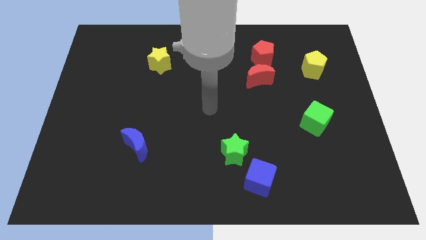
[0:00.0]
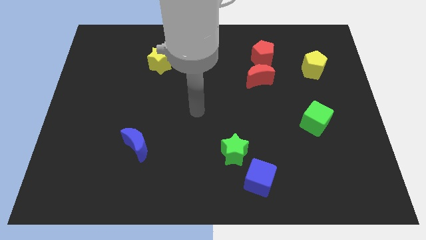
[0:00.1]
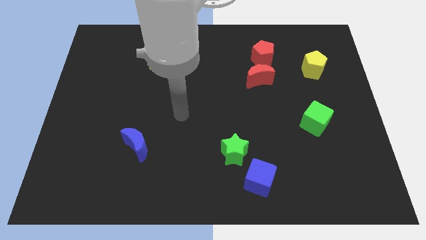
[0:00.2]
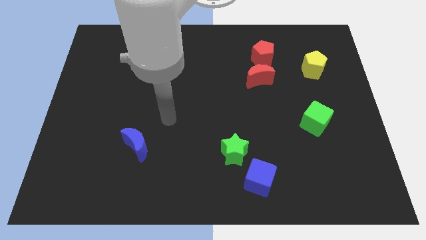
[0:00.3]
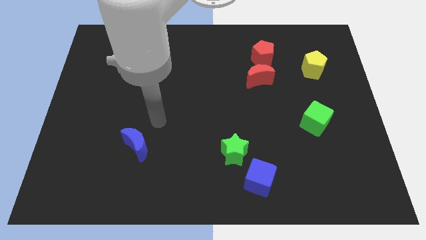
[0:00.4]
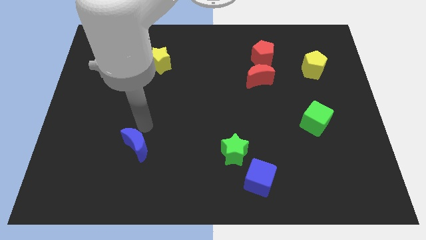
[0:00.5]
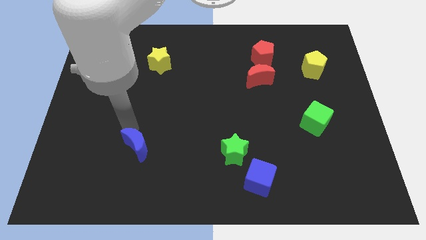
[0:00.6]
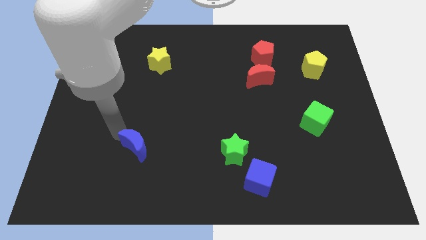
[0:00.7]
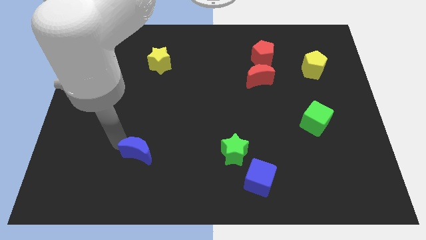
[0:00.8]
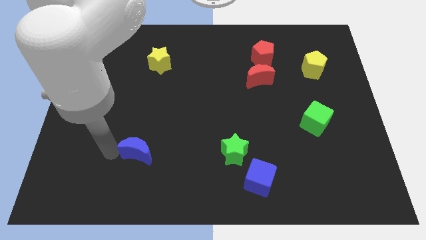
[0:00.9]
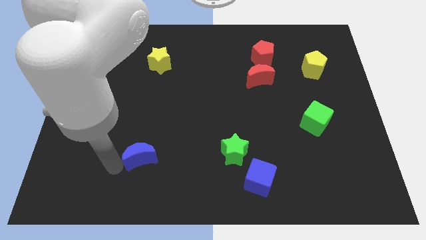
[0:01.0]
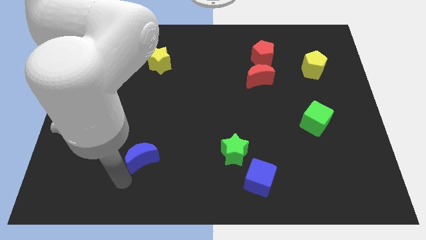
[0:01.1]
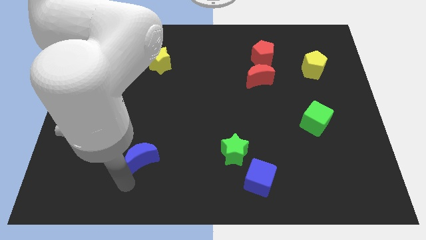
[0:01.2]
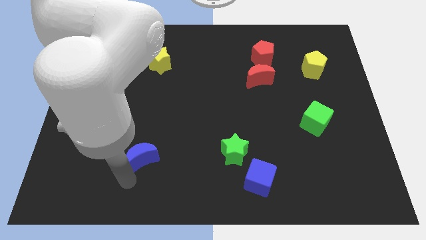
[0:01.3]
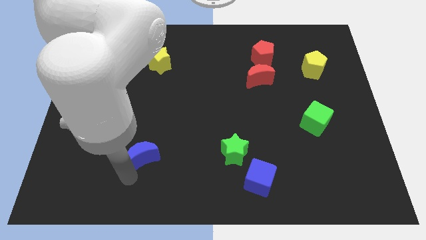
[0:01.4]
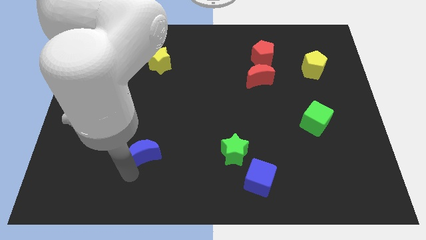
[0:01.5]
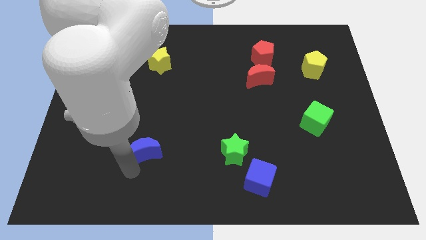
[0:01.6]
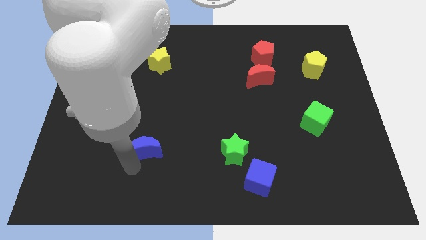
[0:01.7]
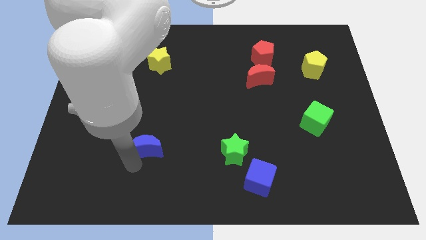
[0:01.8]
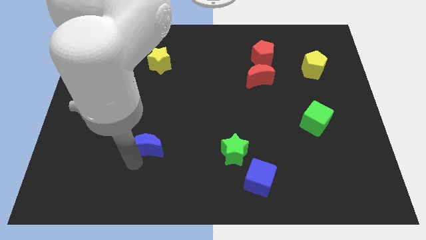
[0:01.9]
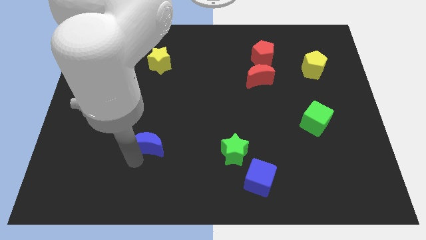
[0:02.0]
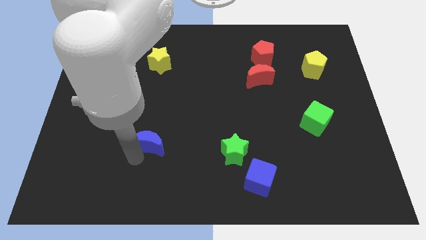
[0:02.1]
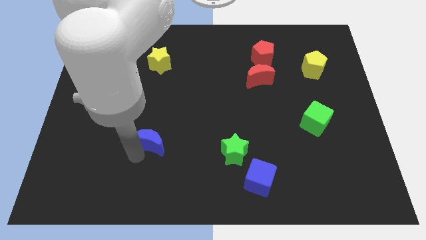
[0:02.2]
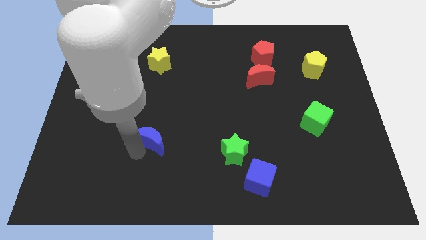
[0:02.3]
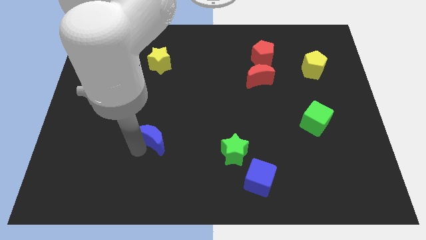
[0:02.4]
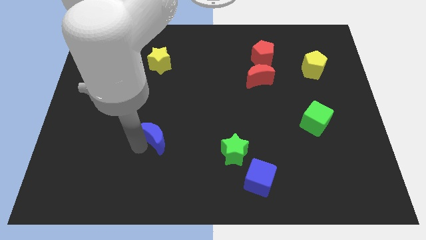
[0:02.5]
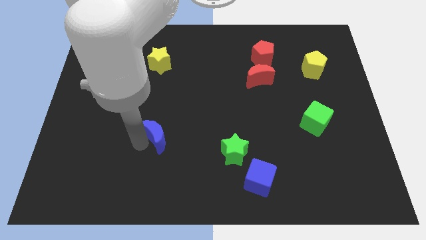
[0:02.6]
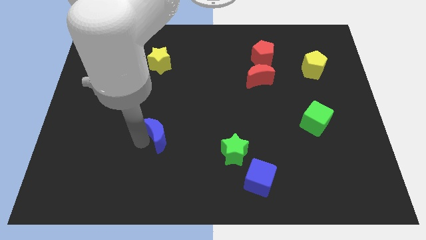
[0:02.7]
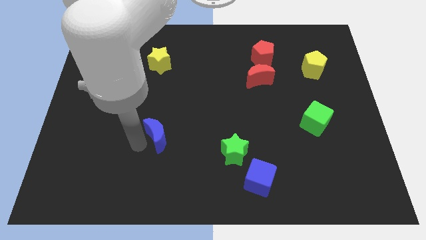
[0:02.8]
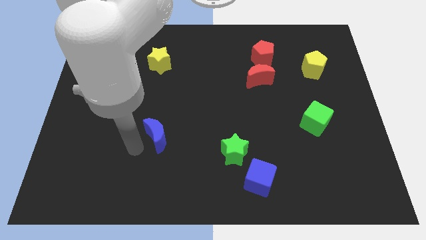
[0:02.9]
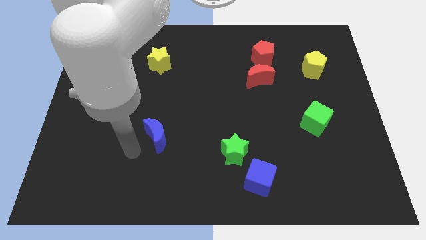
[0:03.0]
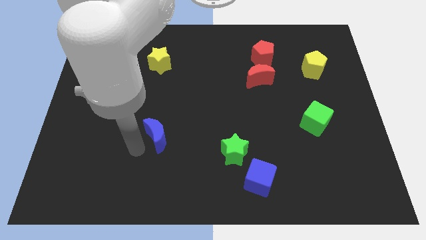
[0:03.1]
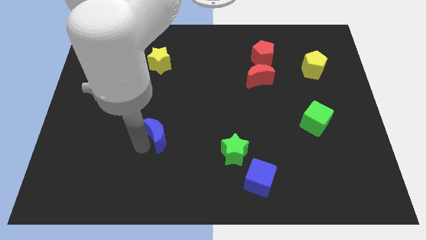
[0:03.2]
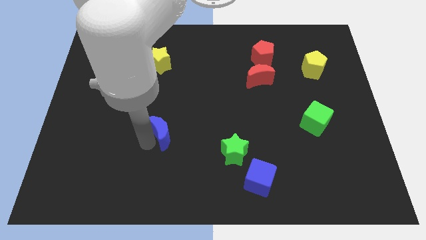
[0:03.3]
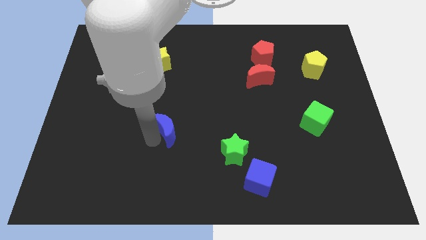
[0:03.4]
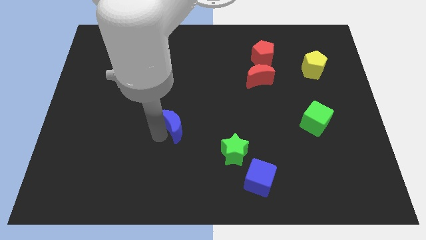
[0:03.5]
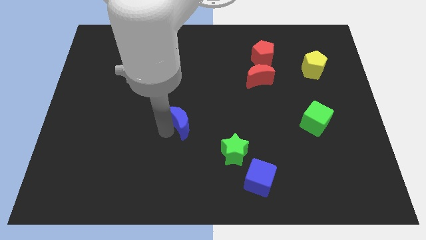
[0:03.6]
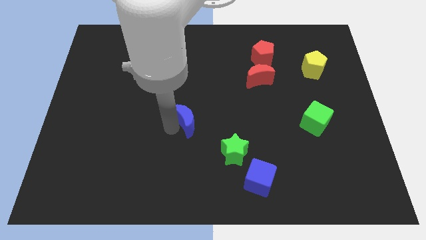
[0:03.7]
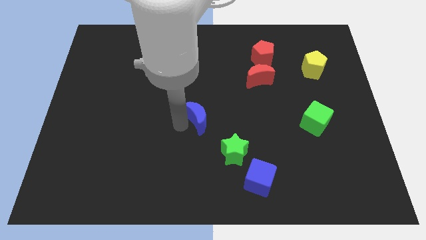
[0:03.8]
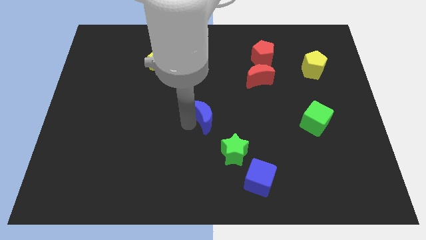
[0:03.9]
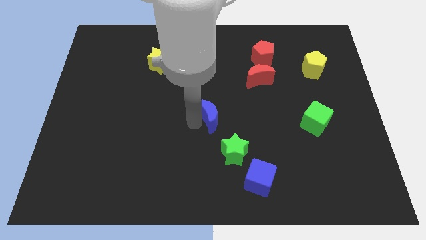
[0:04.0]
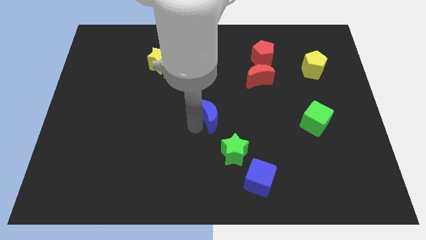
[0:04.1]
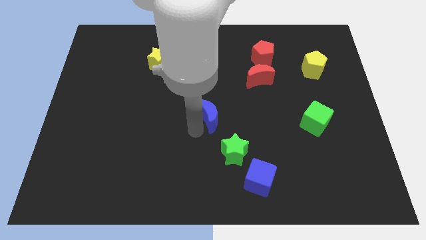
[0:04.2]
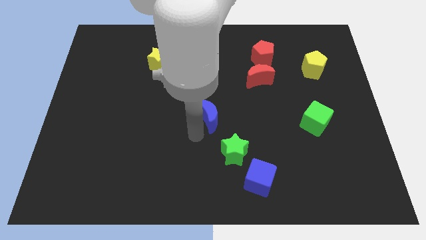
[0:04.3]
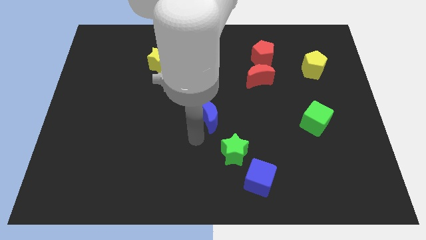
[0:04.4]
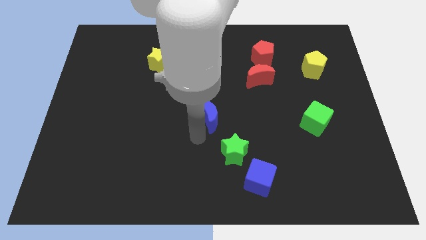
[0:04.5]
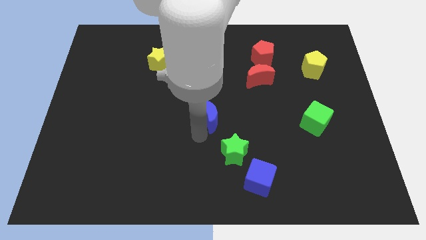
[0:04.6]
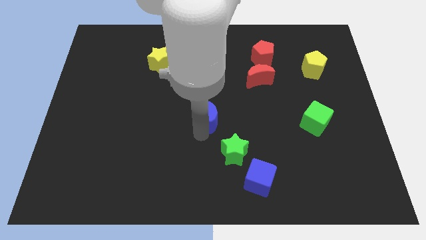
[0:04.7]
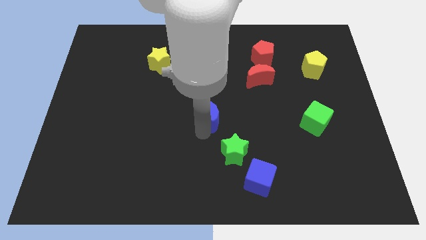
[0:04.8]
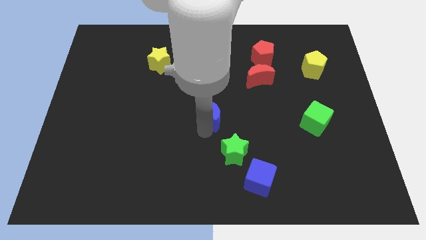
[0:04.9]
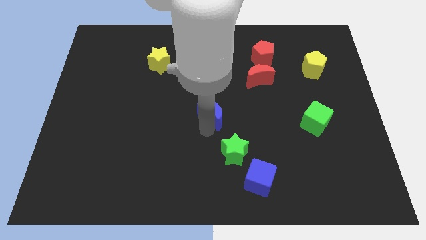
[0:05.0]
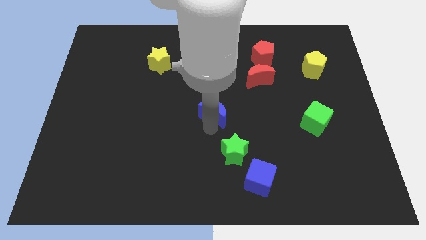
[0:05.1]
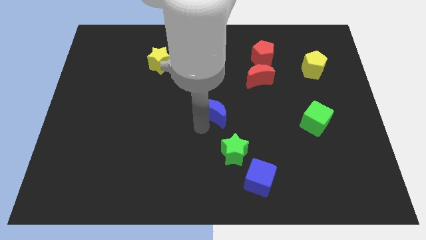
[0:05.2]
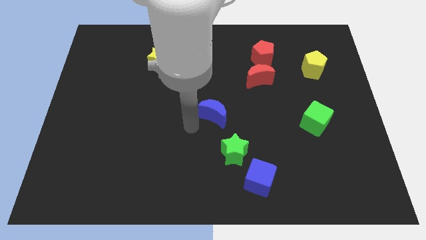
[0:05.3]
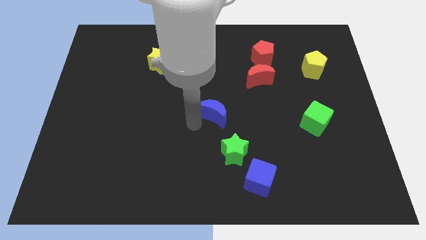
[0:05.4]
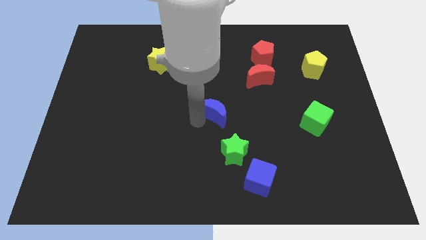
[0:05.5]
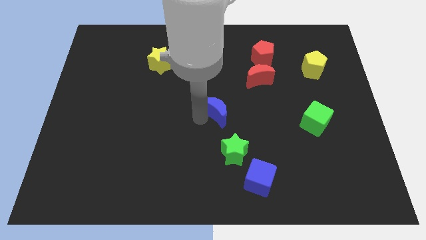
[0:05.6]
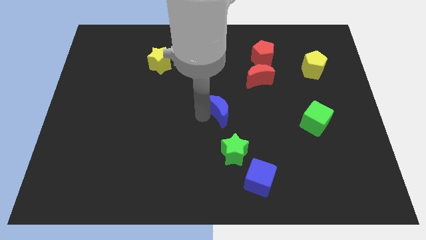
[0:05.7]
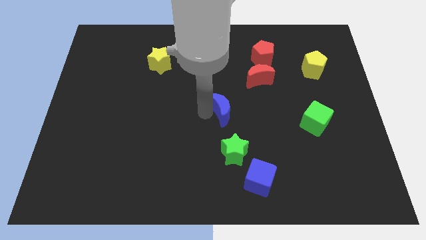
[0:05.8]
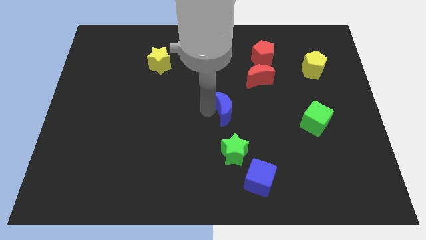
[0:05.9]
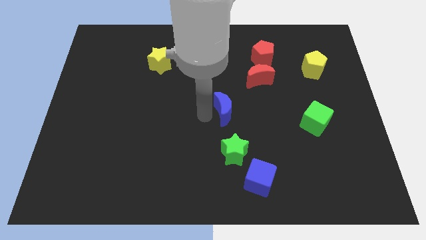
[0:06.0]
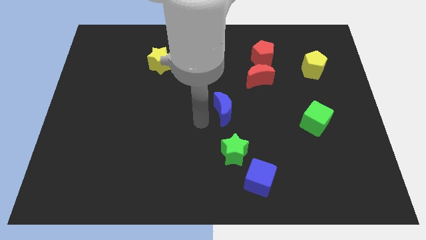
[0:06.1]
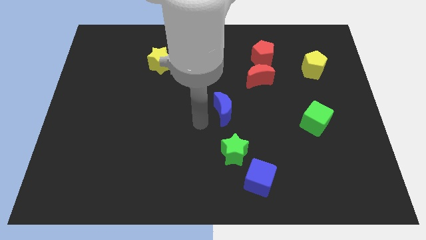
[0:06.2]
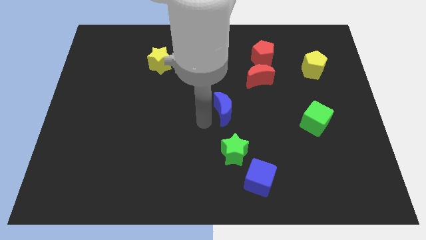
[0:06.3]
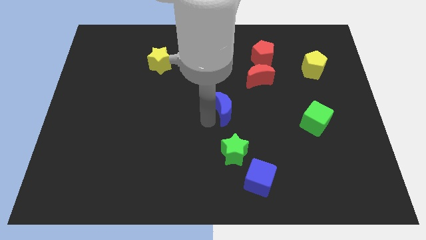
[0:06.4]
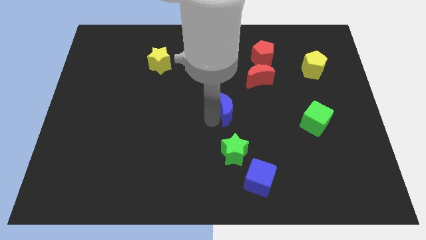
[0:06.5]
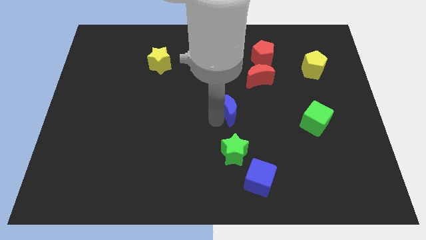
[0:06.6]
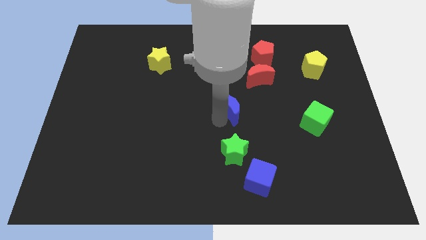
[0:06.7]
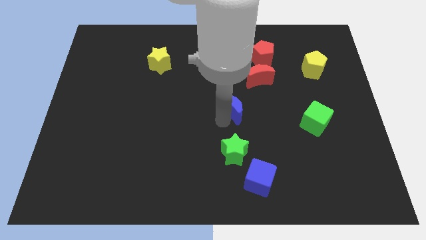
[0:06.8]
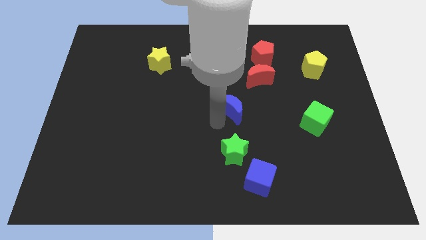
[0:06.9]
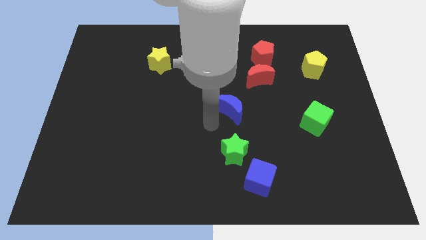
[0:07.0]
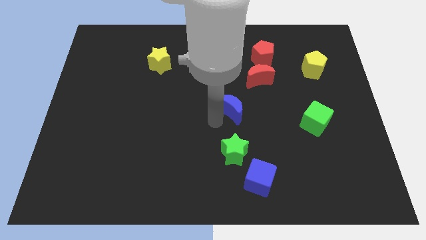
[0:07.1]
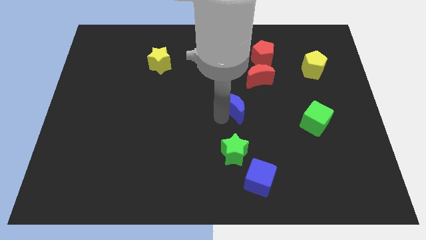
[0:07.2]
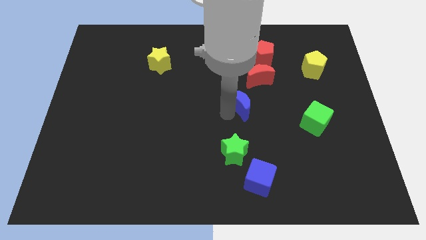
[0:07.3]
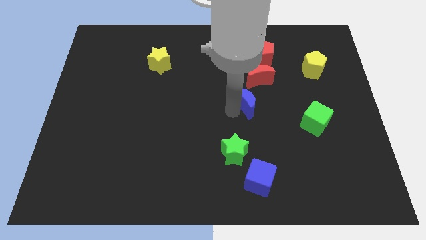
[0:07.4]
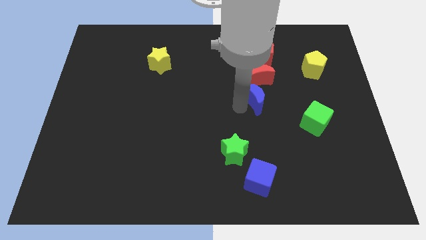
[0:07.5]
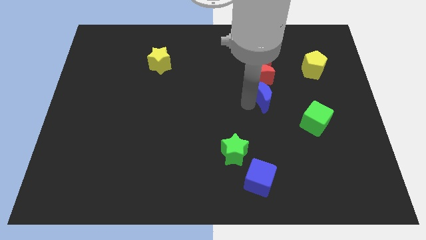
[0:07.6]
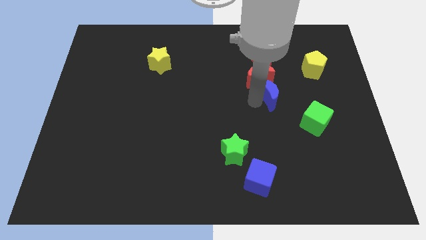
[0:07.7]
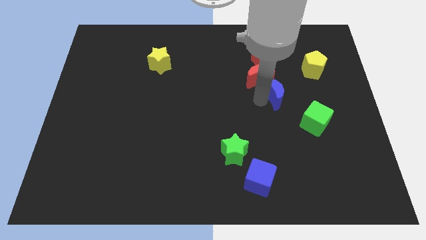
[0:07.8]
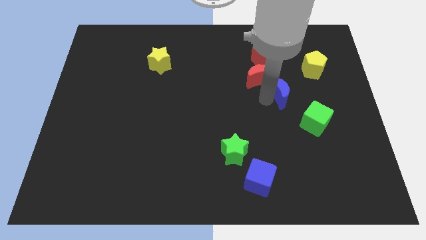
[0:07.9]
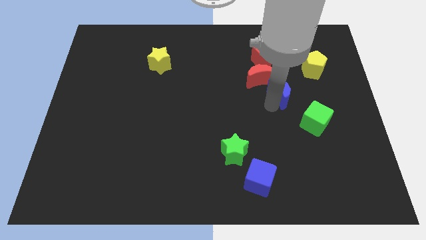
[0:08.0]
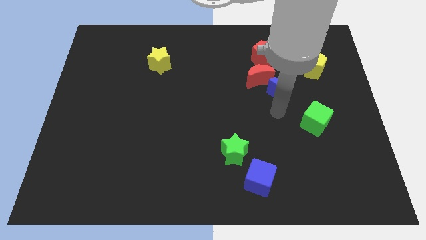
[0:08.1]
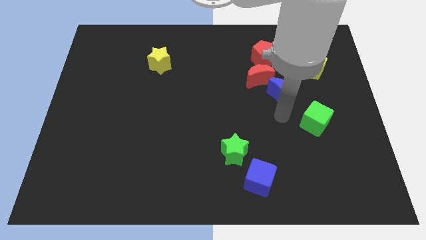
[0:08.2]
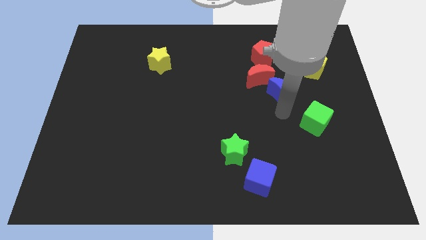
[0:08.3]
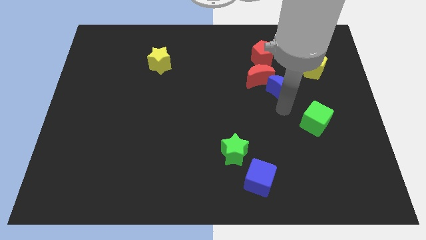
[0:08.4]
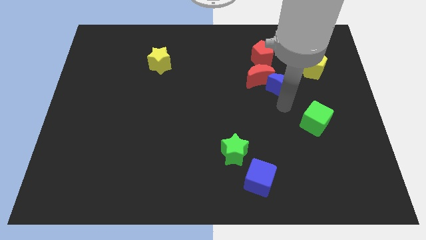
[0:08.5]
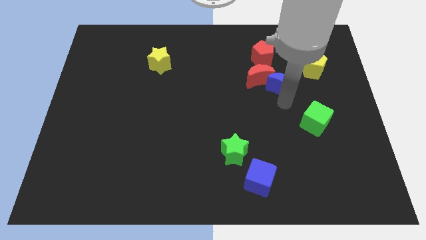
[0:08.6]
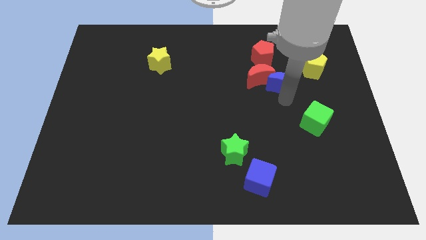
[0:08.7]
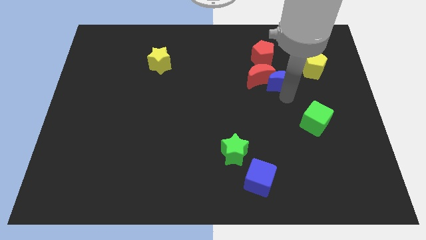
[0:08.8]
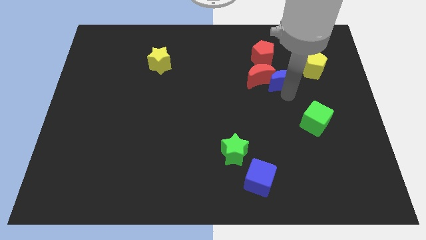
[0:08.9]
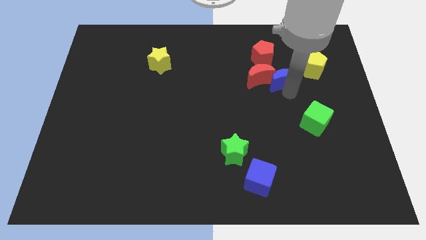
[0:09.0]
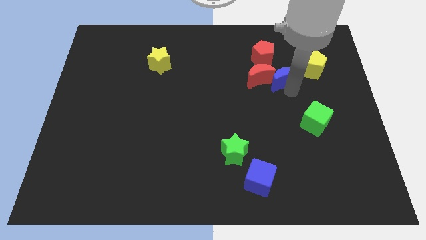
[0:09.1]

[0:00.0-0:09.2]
put the blue moon to the top right of the red moon
